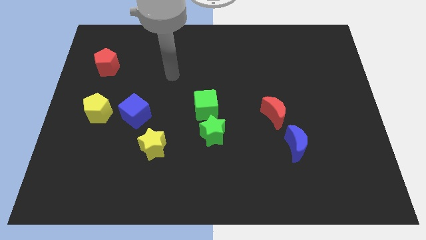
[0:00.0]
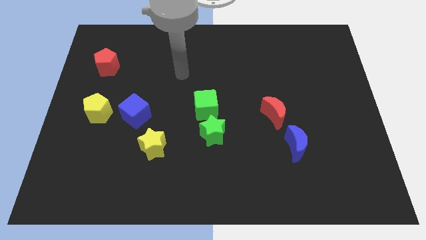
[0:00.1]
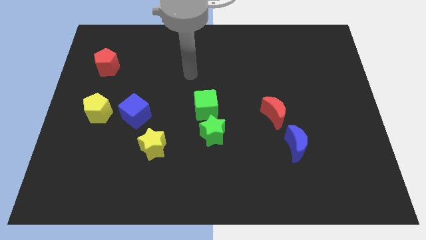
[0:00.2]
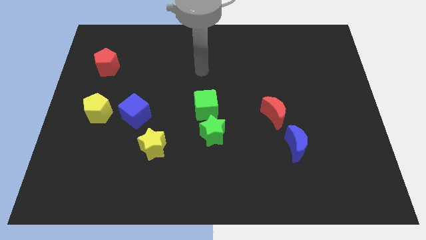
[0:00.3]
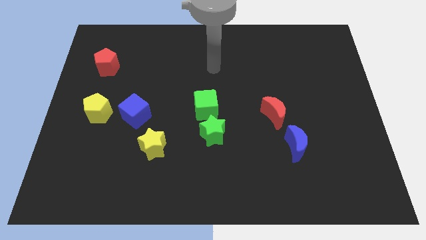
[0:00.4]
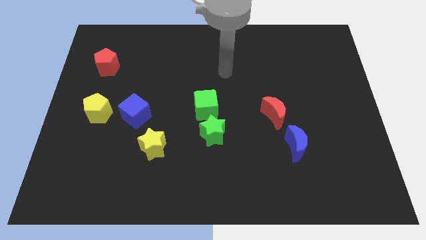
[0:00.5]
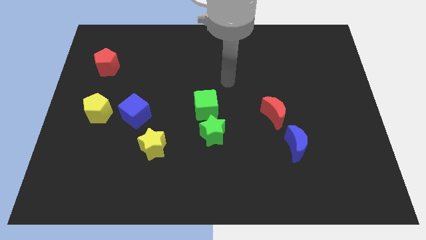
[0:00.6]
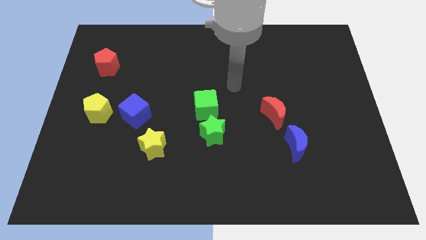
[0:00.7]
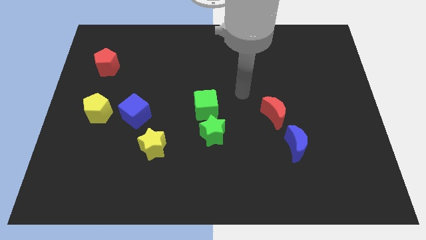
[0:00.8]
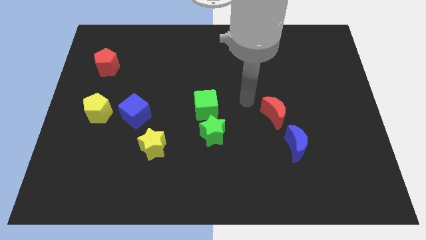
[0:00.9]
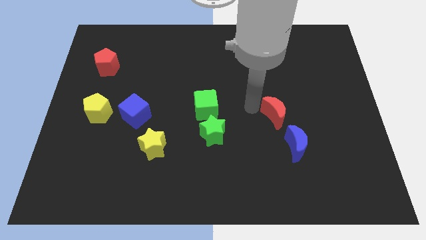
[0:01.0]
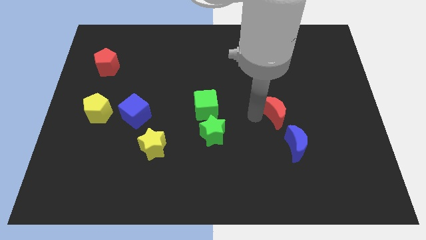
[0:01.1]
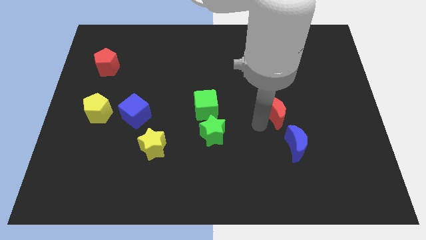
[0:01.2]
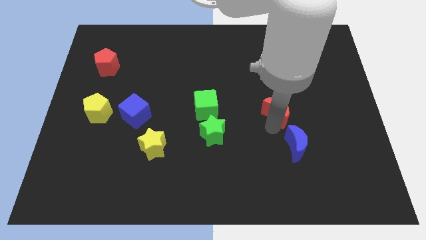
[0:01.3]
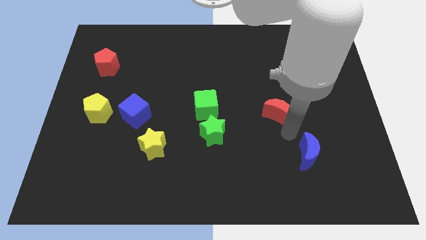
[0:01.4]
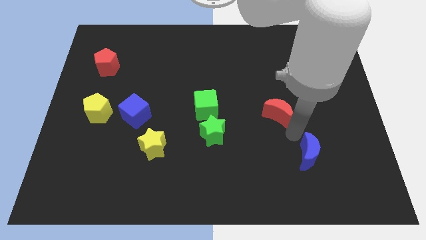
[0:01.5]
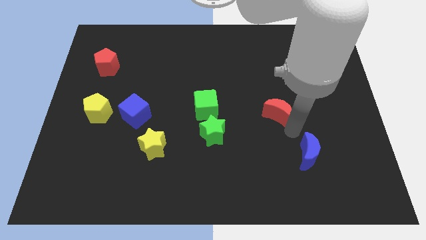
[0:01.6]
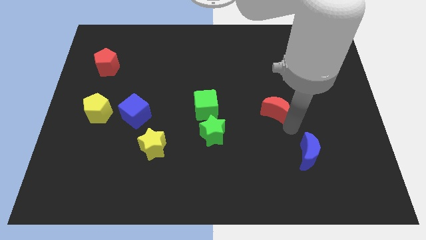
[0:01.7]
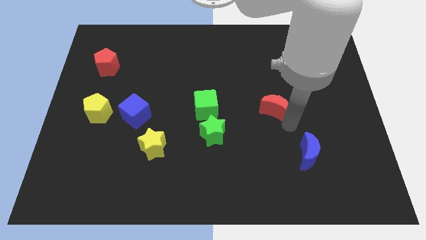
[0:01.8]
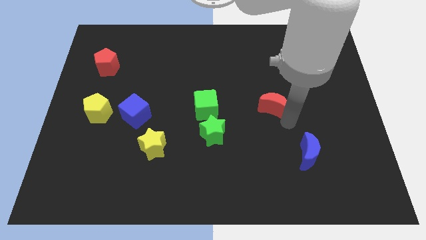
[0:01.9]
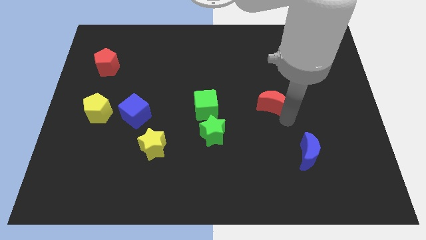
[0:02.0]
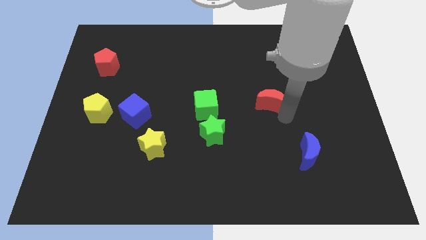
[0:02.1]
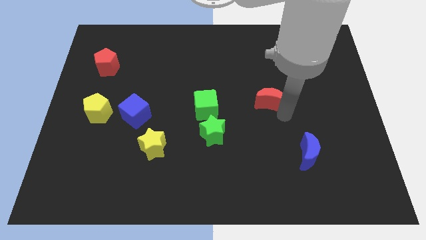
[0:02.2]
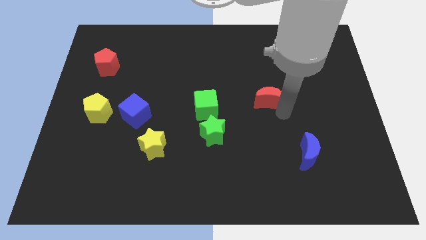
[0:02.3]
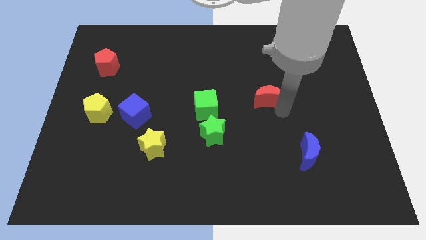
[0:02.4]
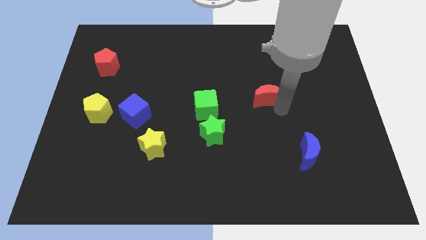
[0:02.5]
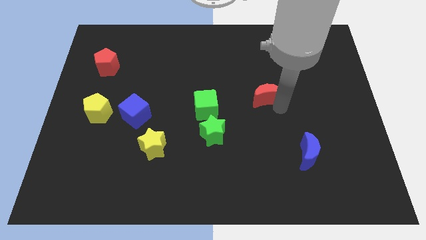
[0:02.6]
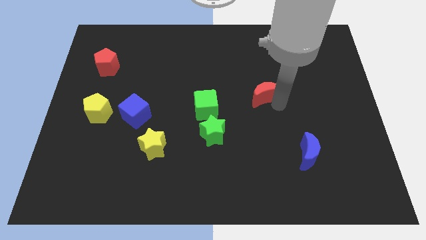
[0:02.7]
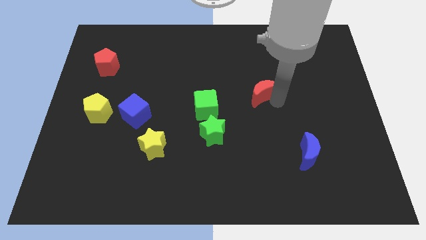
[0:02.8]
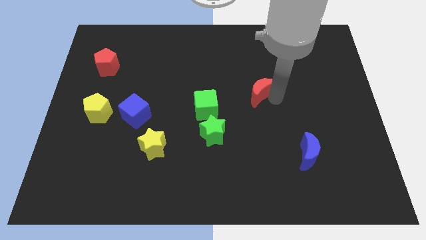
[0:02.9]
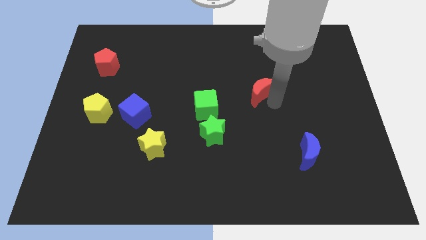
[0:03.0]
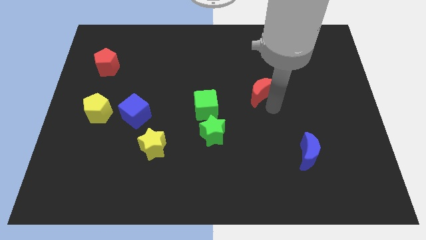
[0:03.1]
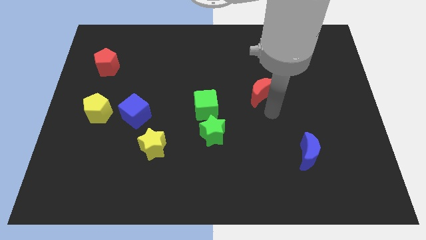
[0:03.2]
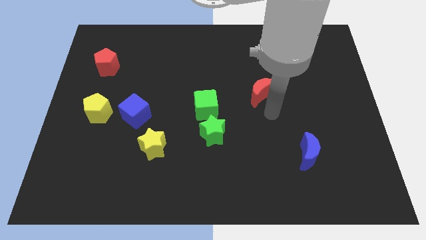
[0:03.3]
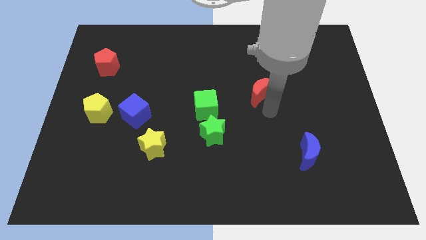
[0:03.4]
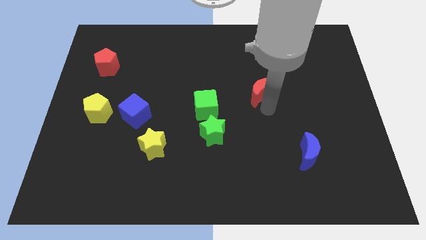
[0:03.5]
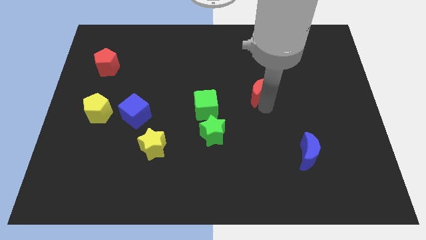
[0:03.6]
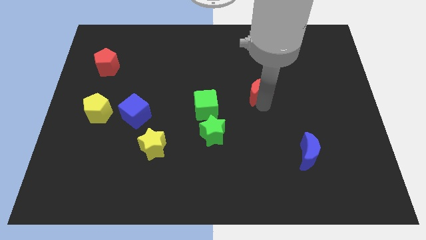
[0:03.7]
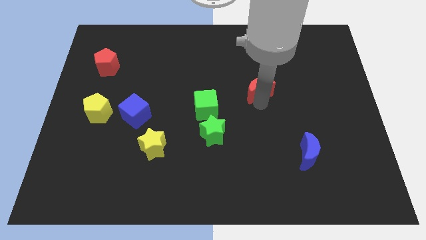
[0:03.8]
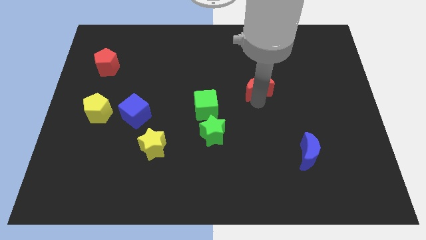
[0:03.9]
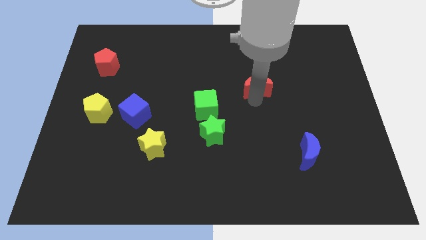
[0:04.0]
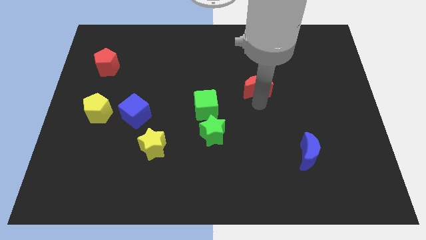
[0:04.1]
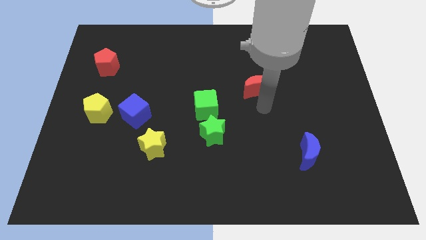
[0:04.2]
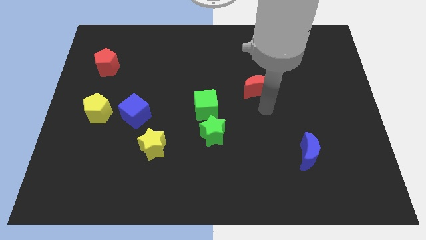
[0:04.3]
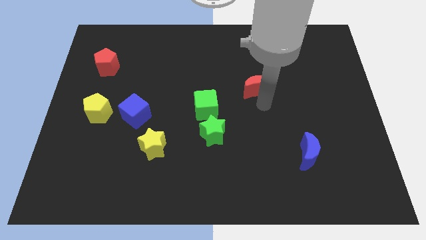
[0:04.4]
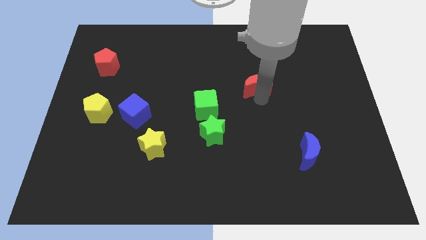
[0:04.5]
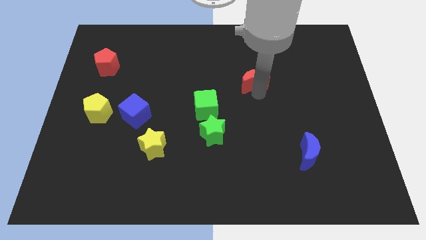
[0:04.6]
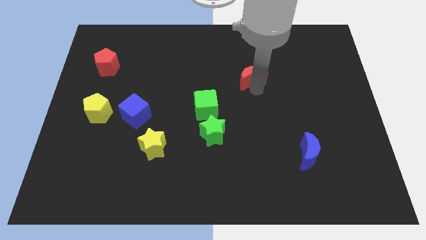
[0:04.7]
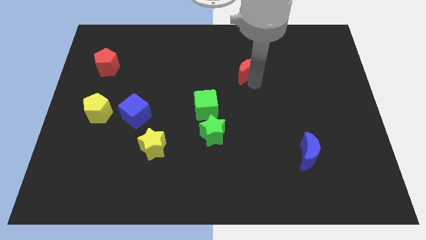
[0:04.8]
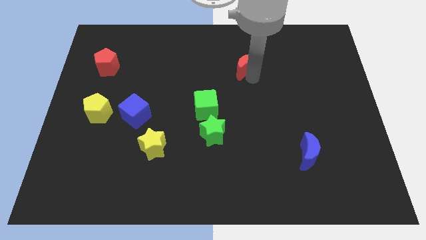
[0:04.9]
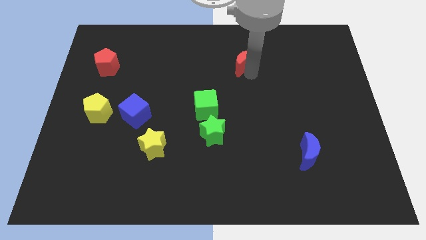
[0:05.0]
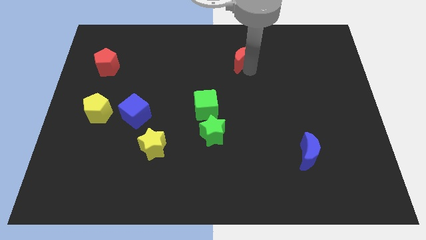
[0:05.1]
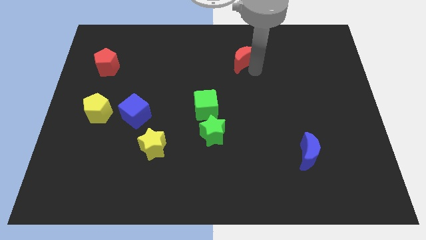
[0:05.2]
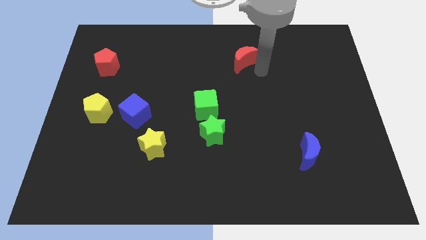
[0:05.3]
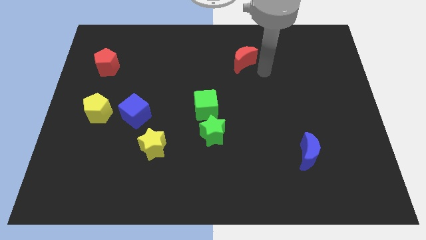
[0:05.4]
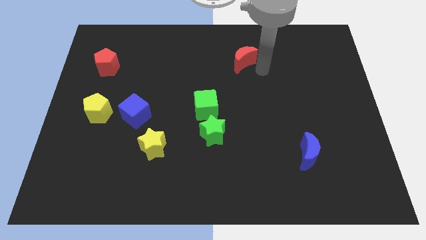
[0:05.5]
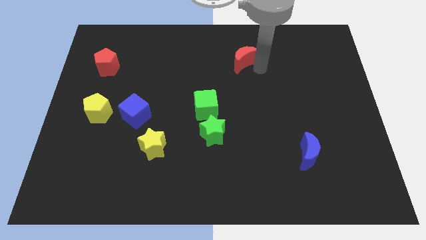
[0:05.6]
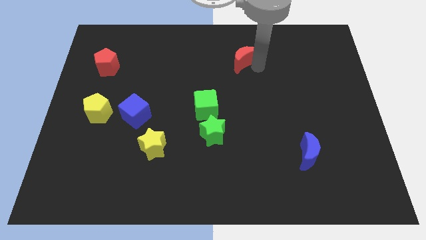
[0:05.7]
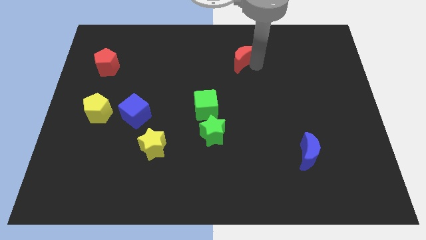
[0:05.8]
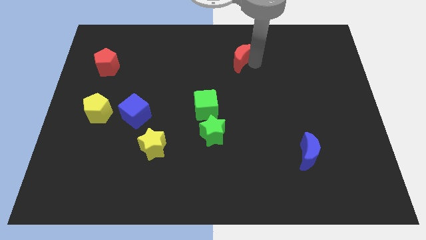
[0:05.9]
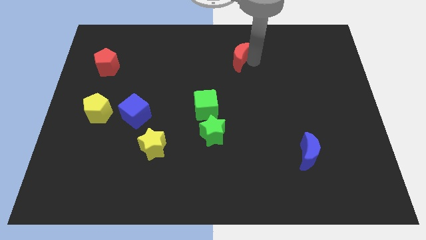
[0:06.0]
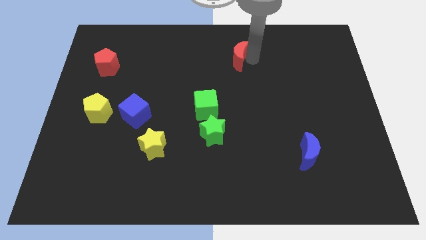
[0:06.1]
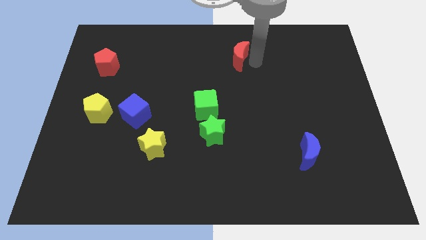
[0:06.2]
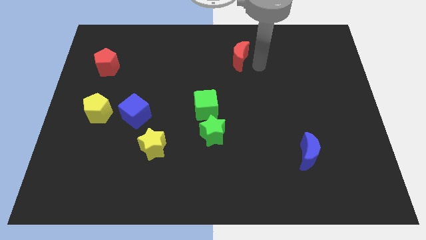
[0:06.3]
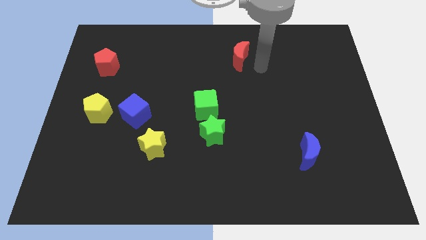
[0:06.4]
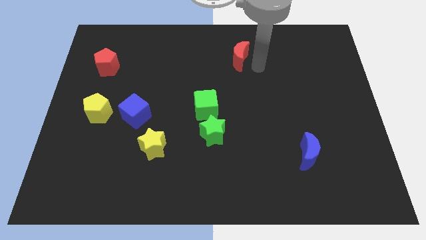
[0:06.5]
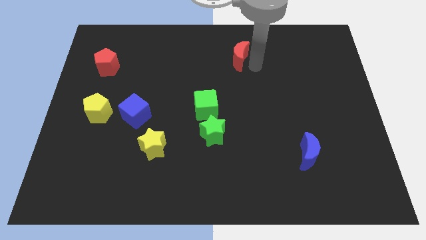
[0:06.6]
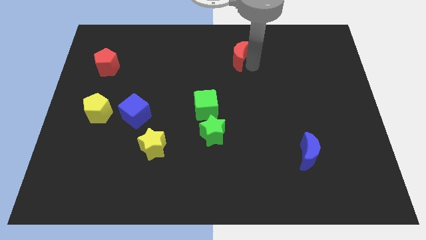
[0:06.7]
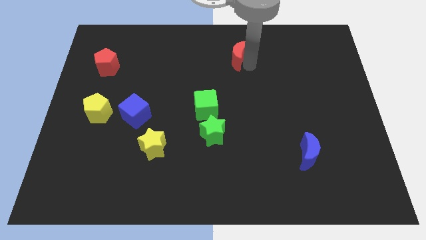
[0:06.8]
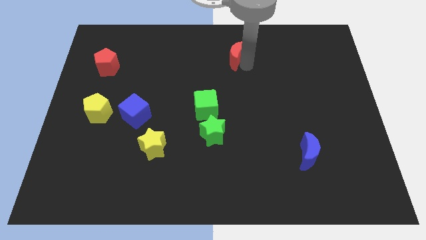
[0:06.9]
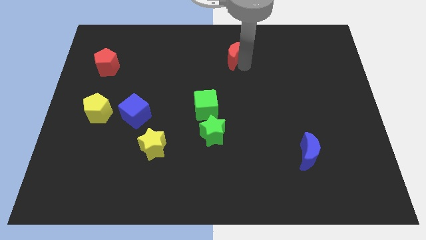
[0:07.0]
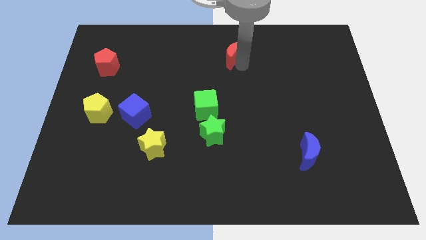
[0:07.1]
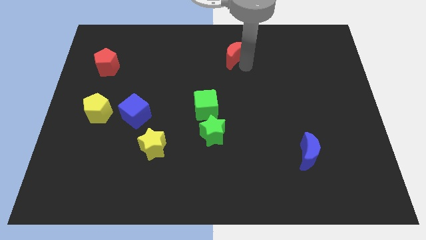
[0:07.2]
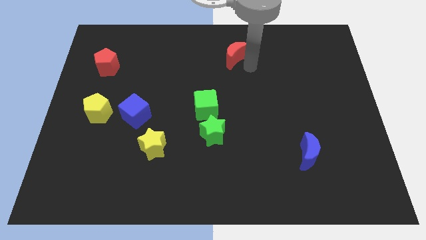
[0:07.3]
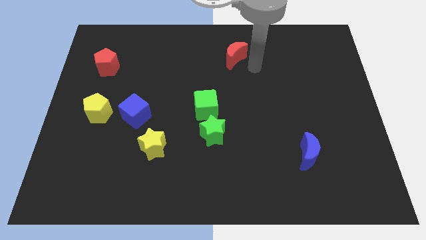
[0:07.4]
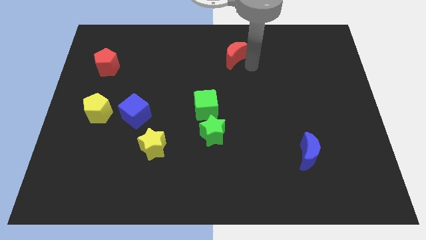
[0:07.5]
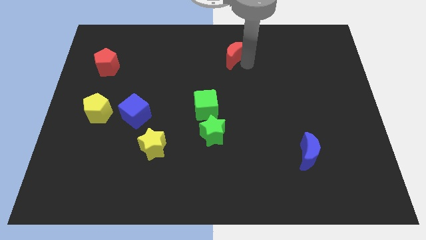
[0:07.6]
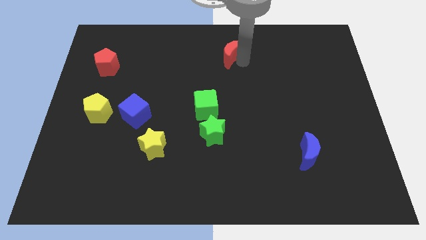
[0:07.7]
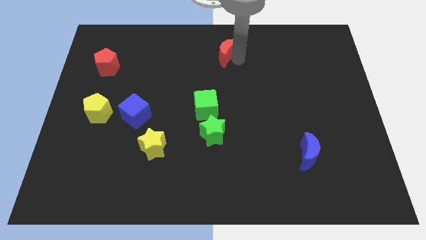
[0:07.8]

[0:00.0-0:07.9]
move the red moon to the towards your base
